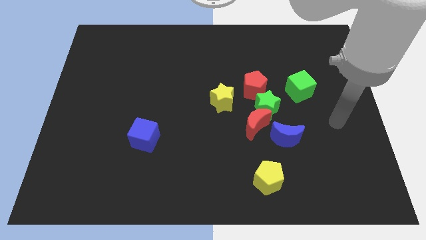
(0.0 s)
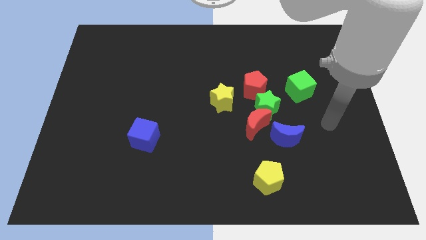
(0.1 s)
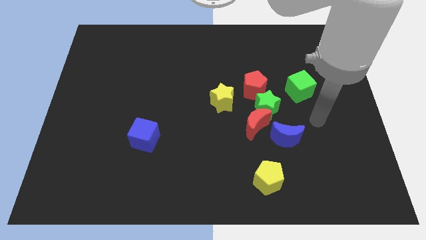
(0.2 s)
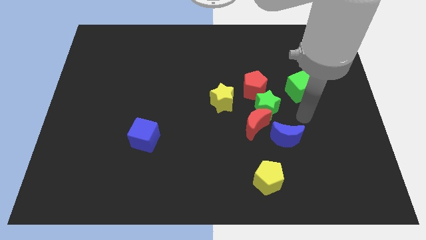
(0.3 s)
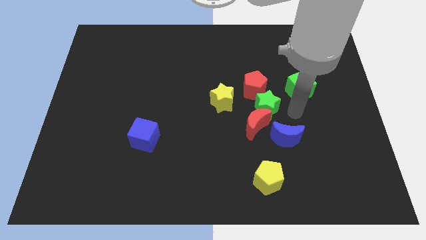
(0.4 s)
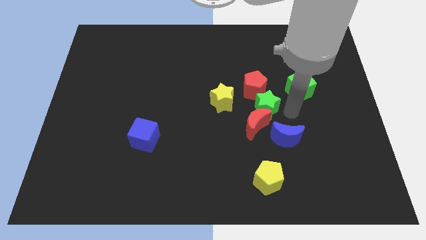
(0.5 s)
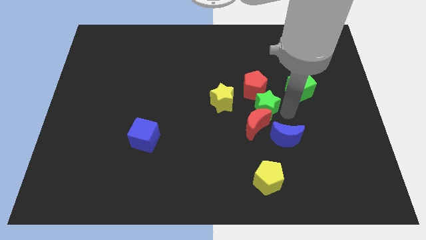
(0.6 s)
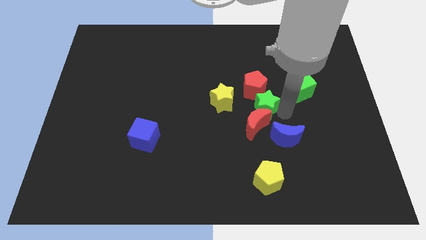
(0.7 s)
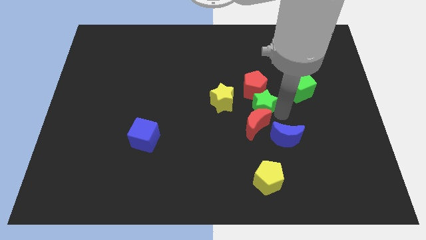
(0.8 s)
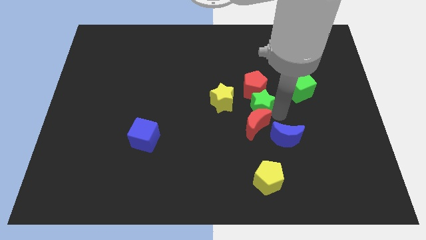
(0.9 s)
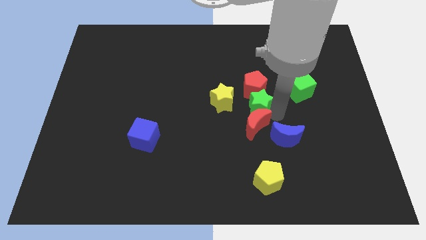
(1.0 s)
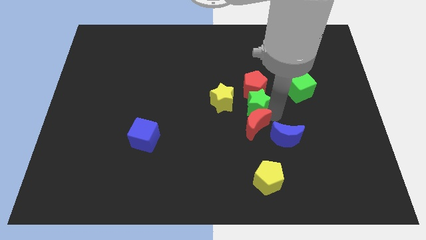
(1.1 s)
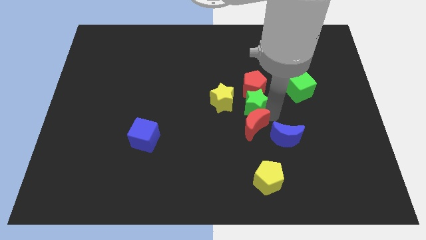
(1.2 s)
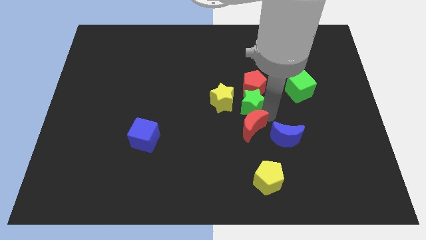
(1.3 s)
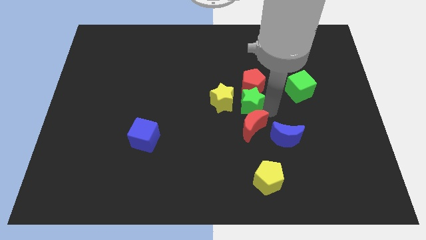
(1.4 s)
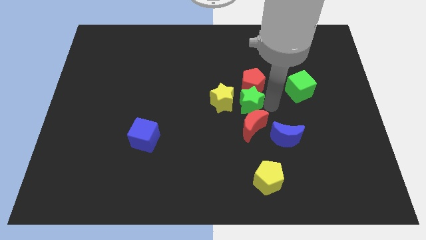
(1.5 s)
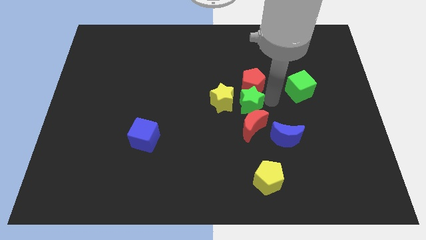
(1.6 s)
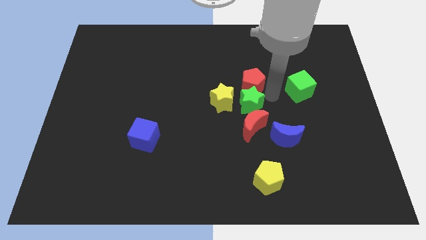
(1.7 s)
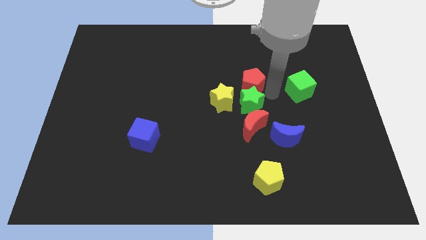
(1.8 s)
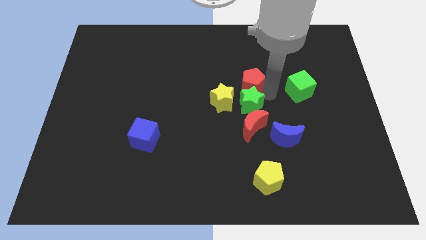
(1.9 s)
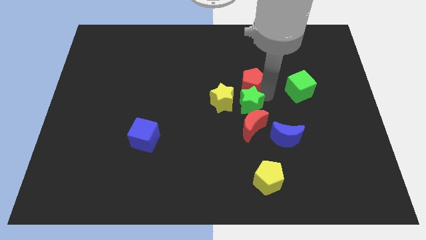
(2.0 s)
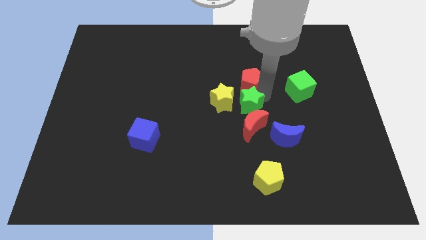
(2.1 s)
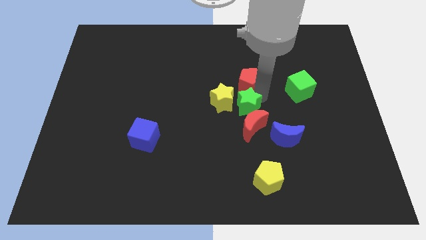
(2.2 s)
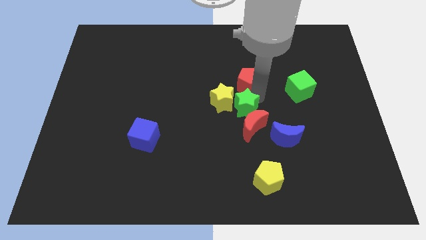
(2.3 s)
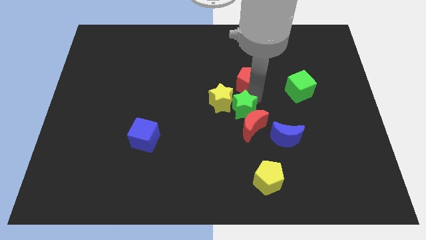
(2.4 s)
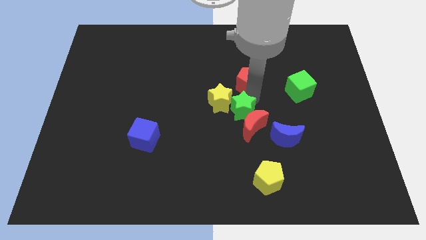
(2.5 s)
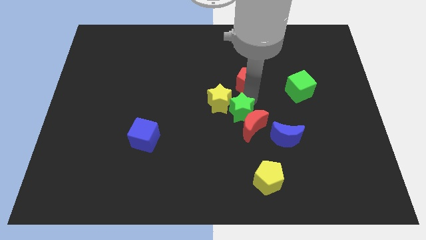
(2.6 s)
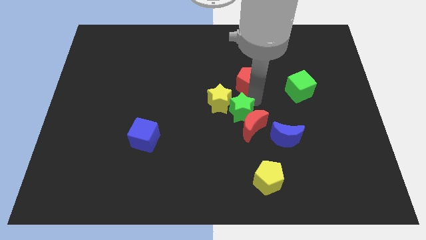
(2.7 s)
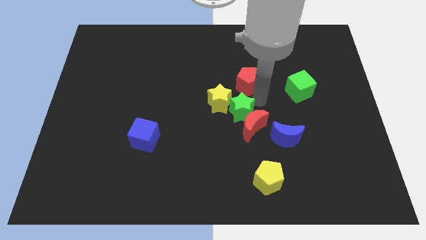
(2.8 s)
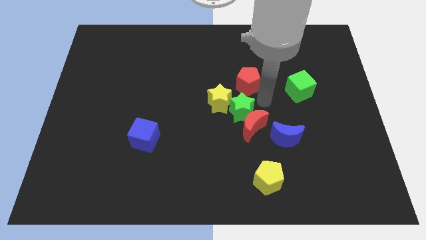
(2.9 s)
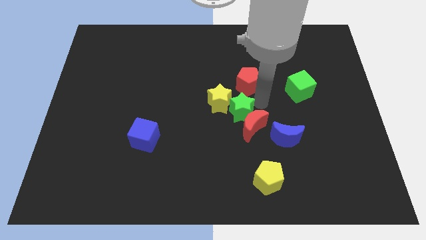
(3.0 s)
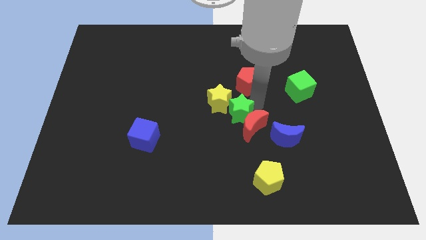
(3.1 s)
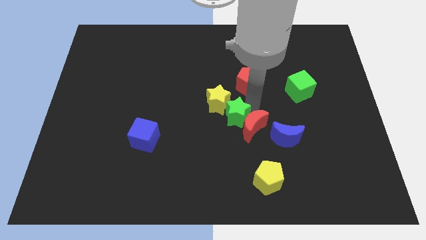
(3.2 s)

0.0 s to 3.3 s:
slide the green star left a little

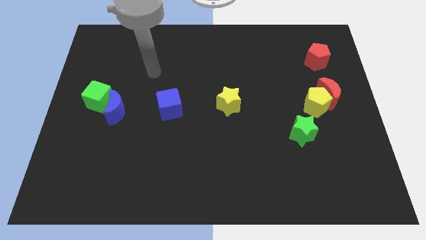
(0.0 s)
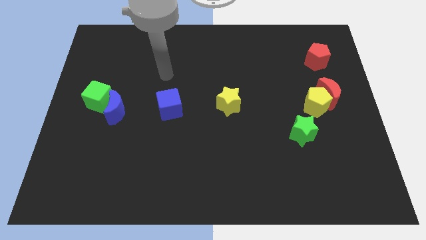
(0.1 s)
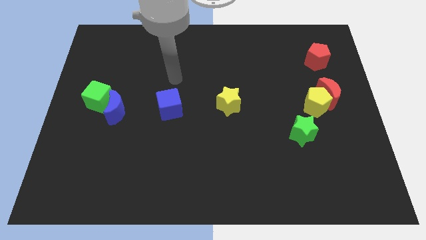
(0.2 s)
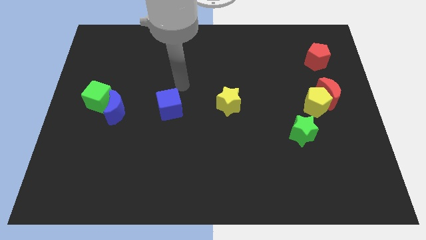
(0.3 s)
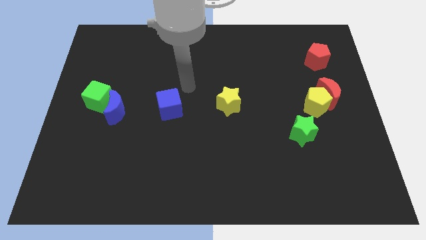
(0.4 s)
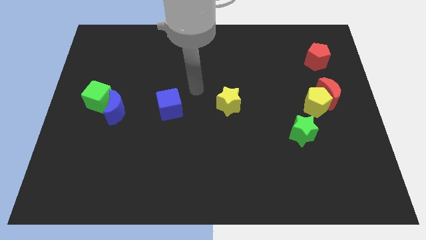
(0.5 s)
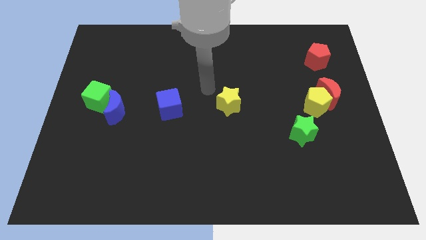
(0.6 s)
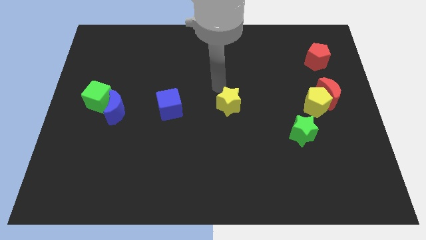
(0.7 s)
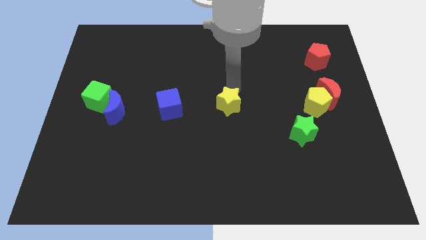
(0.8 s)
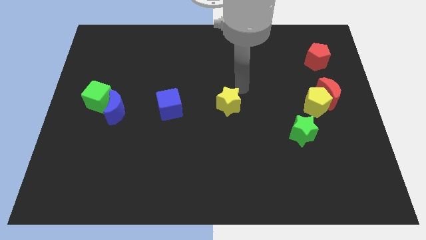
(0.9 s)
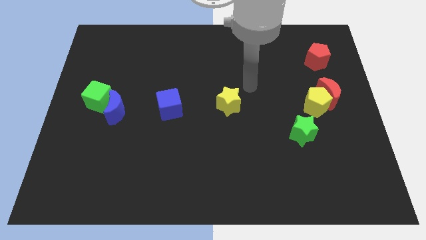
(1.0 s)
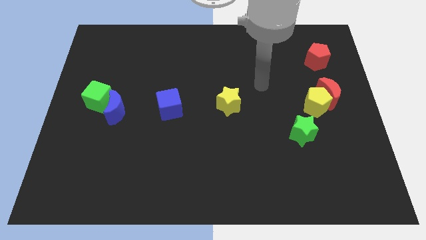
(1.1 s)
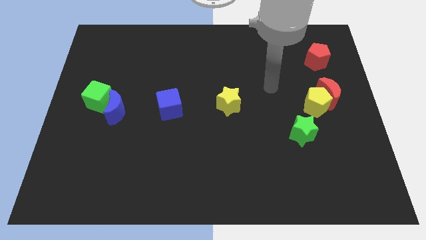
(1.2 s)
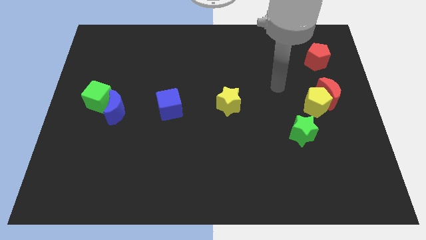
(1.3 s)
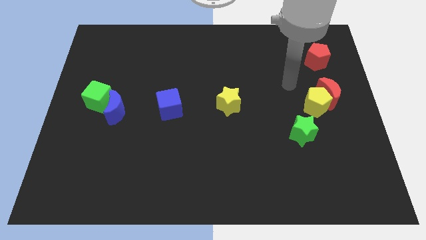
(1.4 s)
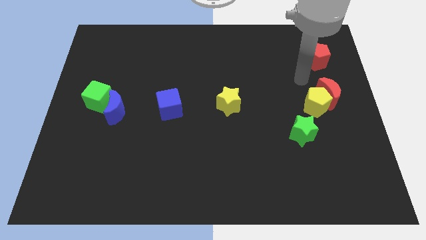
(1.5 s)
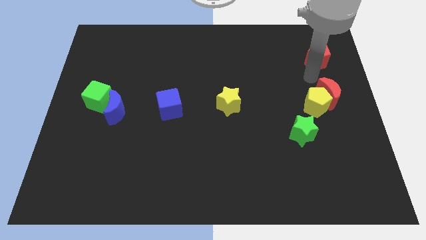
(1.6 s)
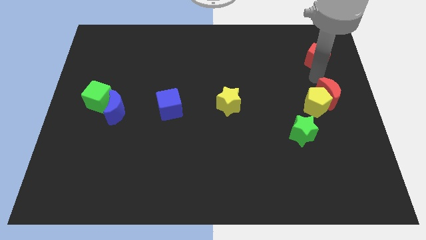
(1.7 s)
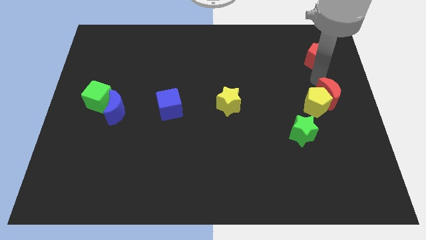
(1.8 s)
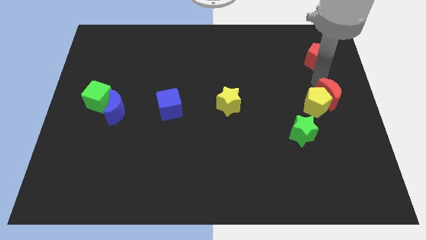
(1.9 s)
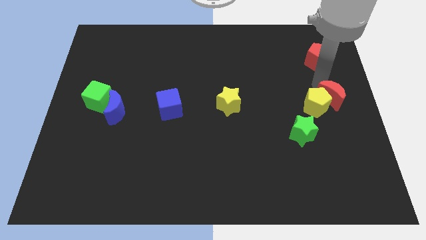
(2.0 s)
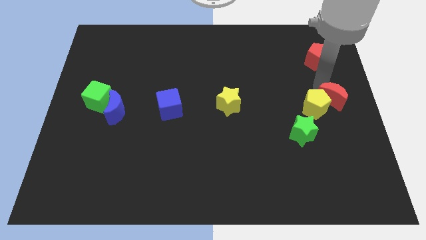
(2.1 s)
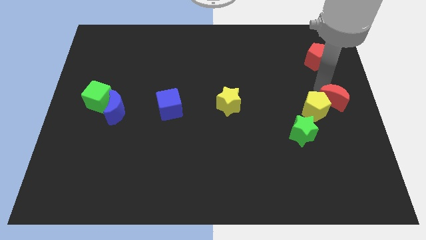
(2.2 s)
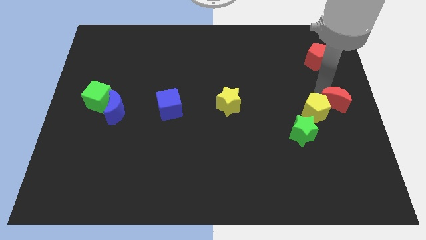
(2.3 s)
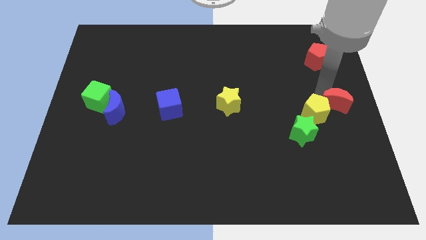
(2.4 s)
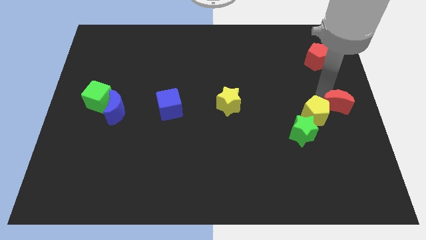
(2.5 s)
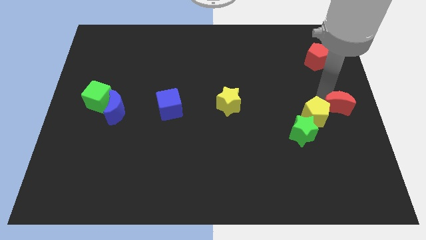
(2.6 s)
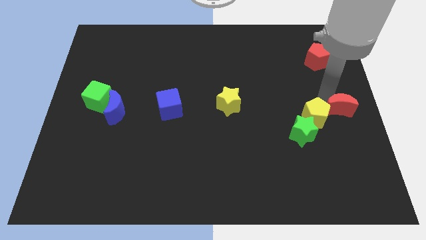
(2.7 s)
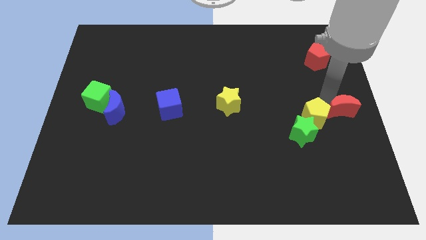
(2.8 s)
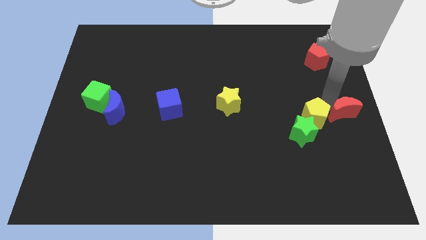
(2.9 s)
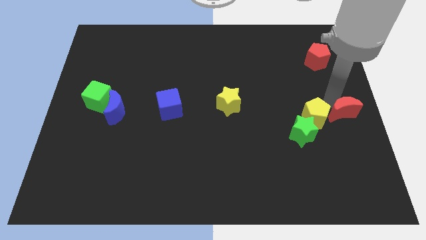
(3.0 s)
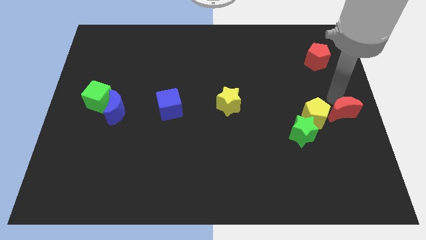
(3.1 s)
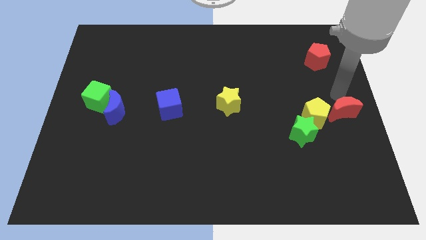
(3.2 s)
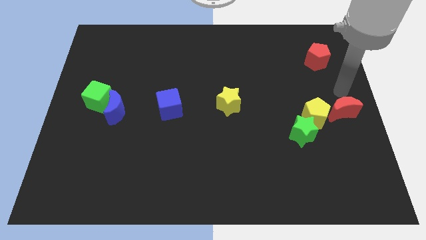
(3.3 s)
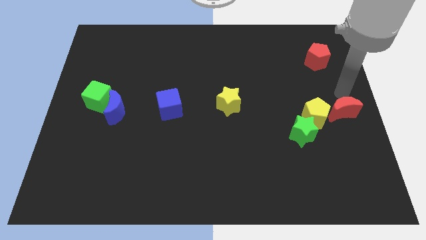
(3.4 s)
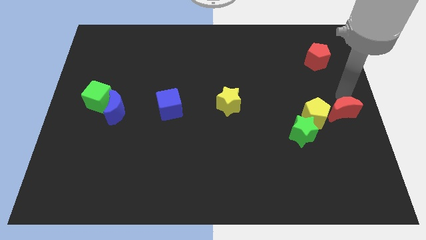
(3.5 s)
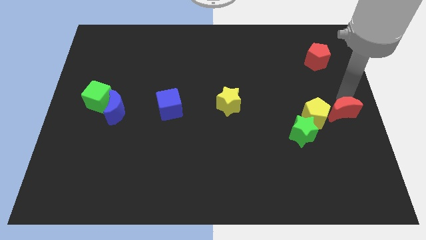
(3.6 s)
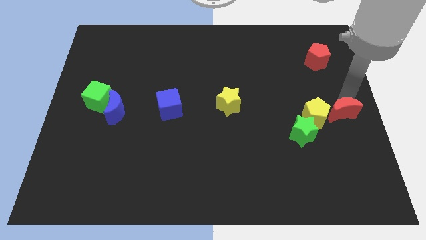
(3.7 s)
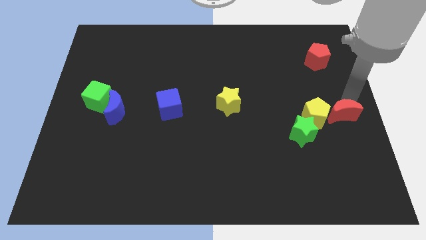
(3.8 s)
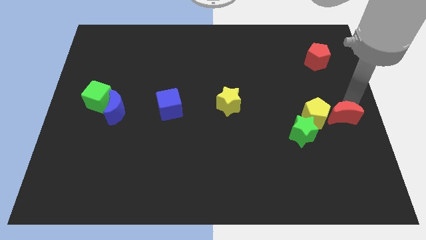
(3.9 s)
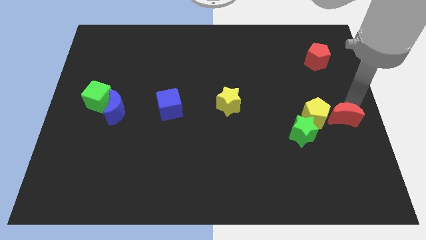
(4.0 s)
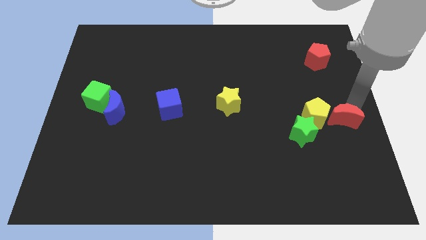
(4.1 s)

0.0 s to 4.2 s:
push the red moon somewhat downwards

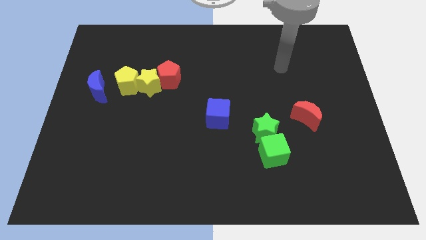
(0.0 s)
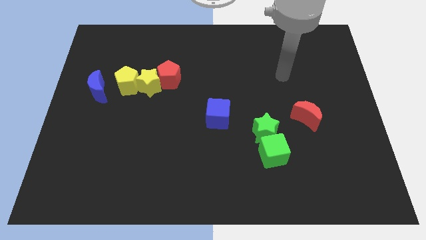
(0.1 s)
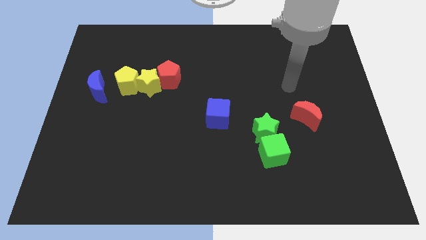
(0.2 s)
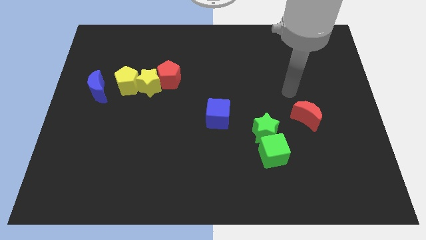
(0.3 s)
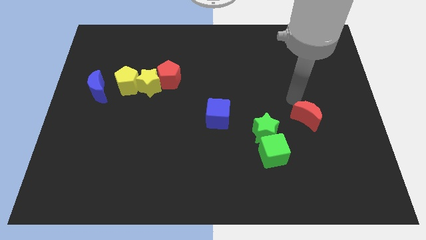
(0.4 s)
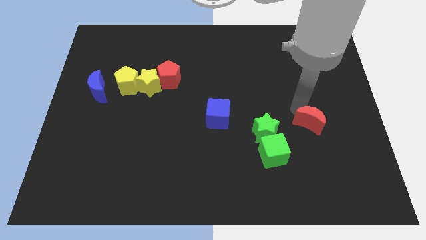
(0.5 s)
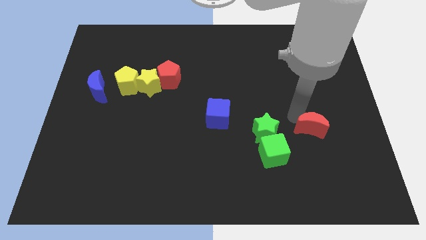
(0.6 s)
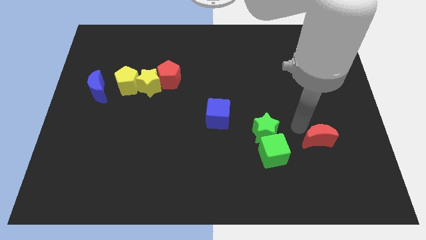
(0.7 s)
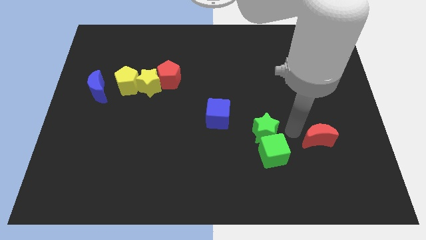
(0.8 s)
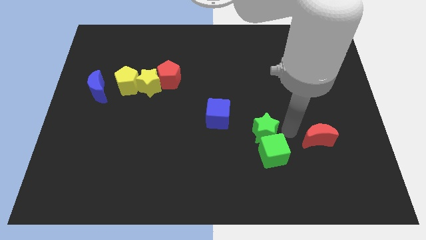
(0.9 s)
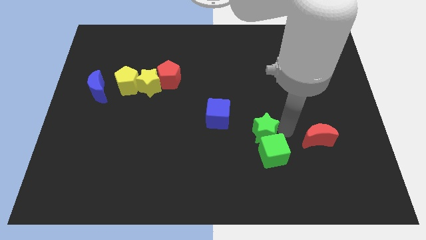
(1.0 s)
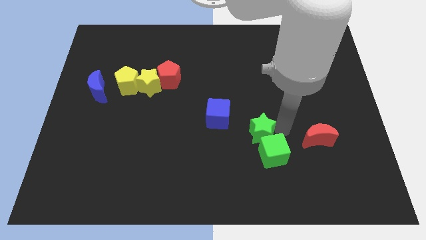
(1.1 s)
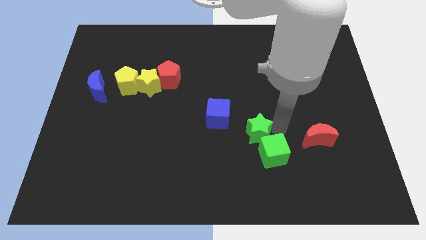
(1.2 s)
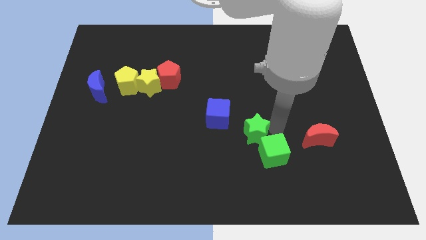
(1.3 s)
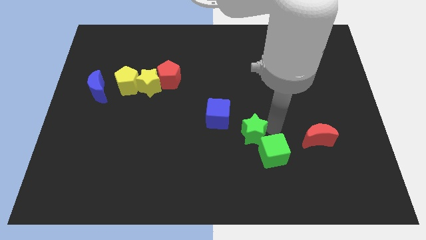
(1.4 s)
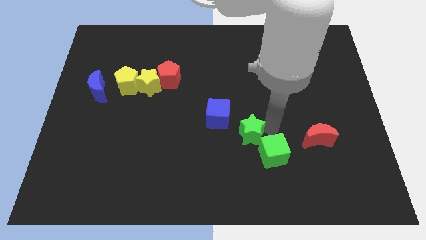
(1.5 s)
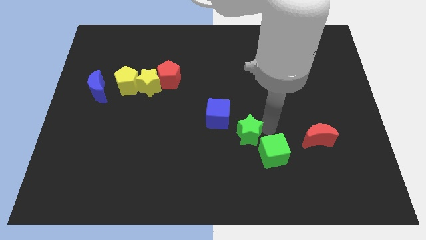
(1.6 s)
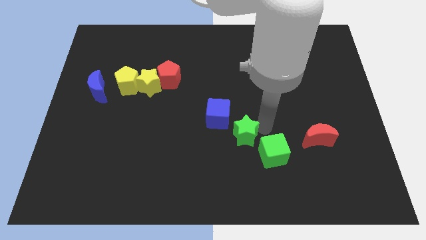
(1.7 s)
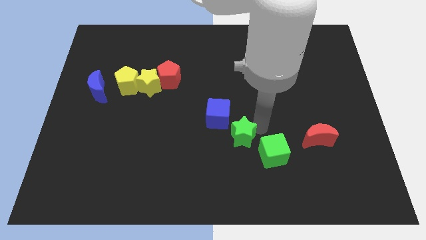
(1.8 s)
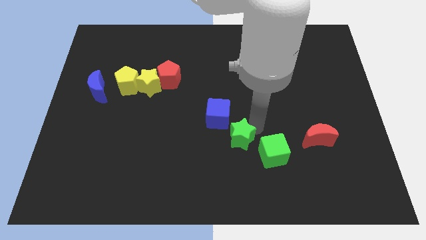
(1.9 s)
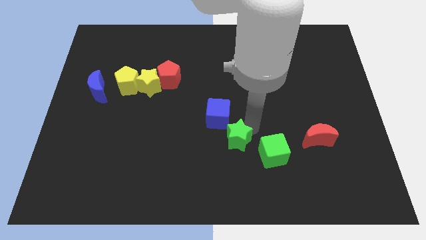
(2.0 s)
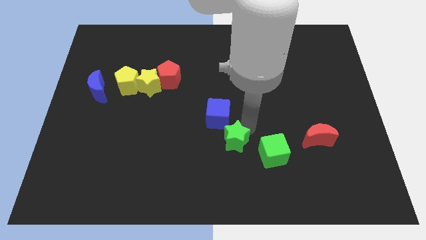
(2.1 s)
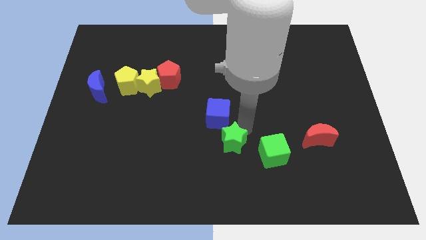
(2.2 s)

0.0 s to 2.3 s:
slide the green star a little left
